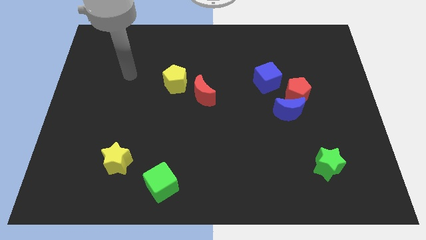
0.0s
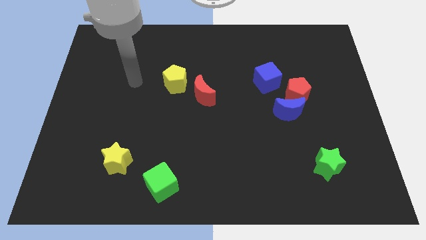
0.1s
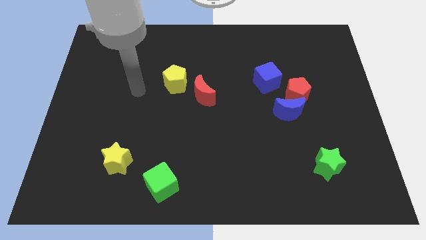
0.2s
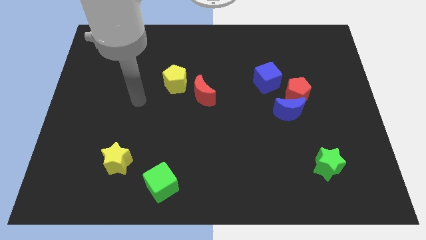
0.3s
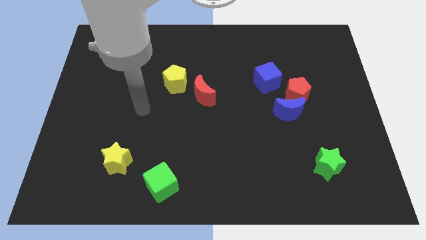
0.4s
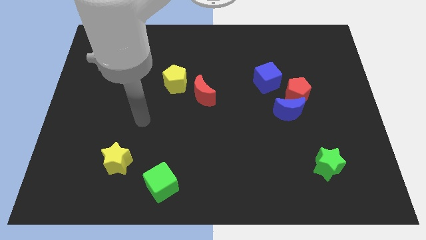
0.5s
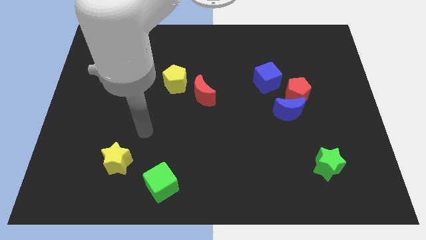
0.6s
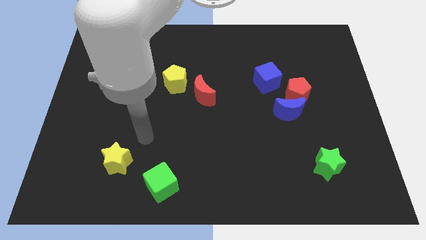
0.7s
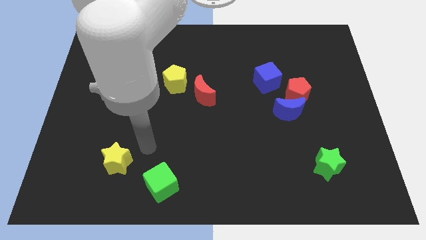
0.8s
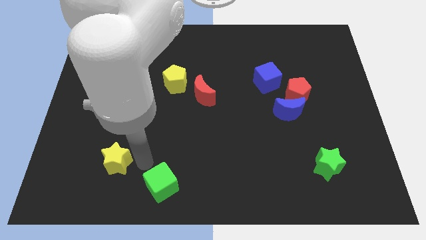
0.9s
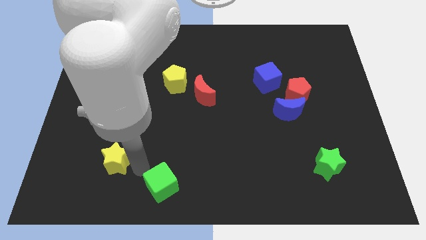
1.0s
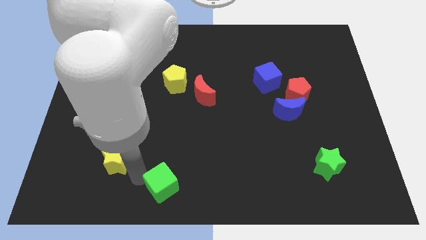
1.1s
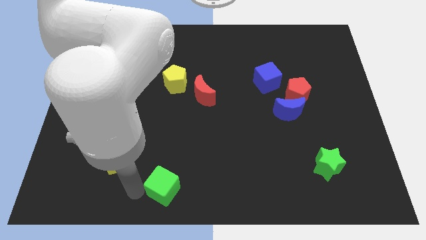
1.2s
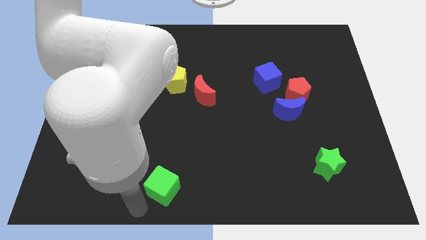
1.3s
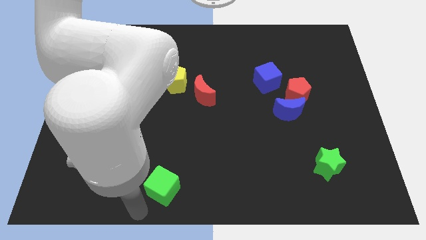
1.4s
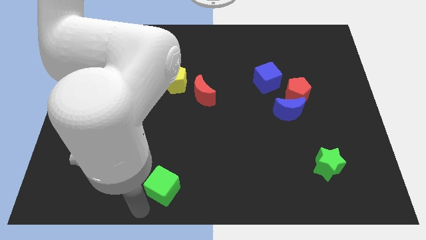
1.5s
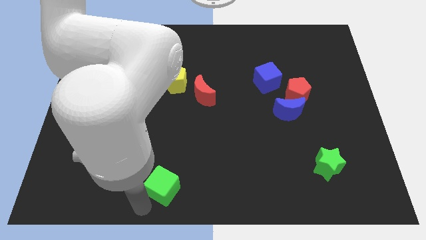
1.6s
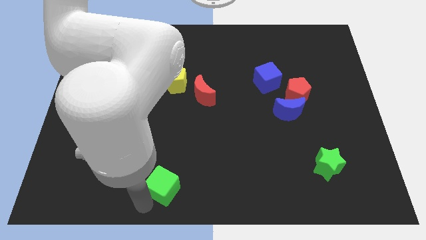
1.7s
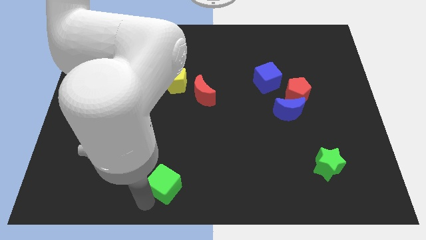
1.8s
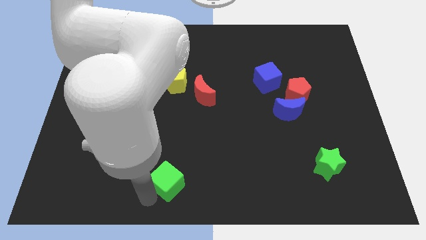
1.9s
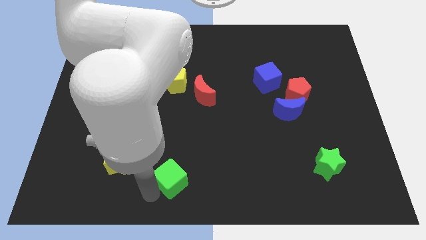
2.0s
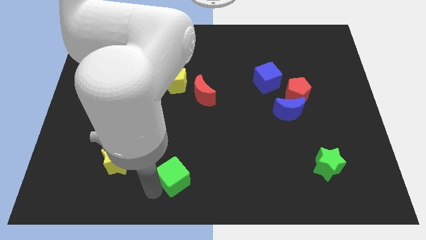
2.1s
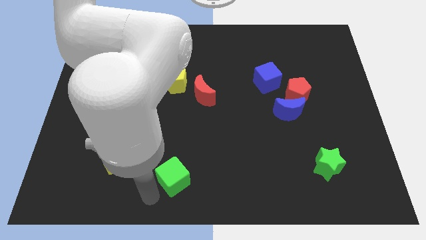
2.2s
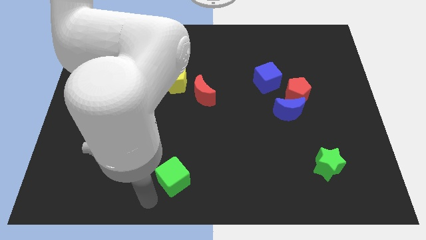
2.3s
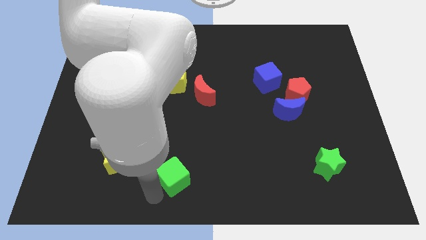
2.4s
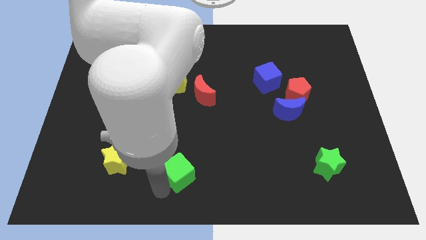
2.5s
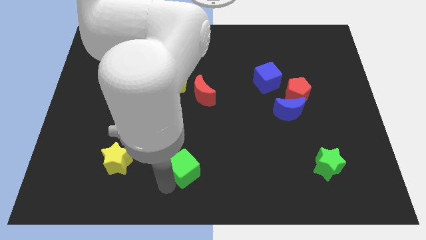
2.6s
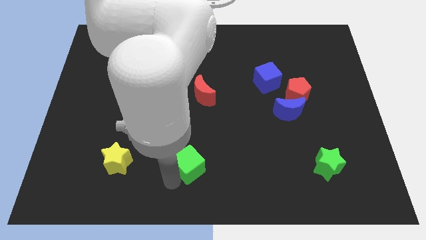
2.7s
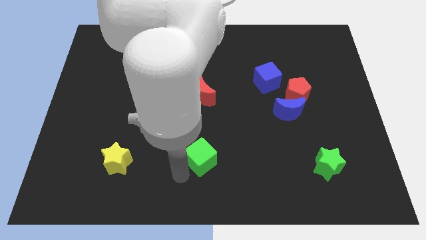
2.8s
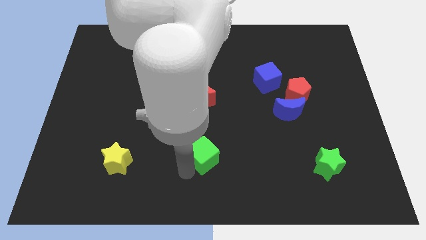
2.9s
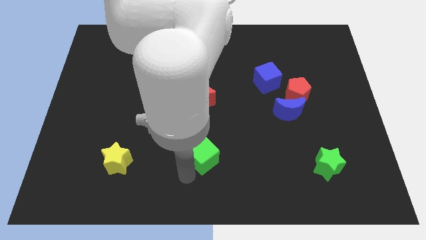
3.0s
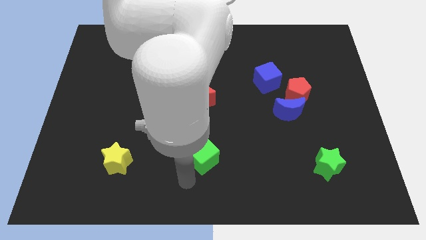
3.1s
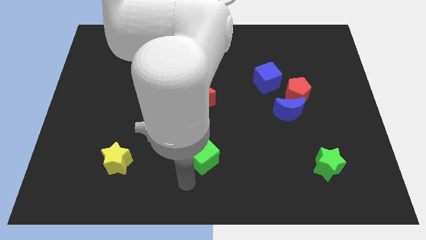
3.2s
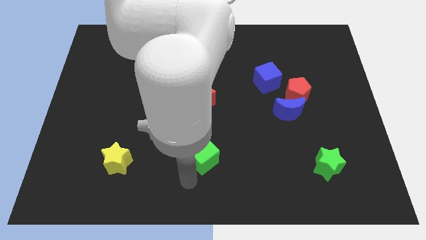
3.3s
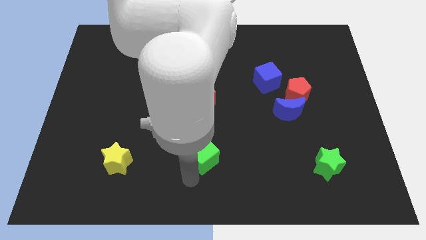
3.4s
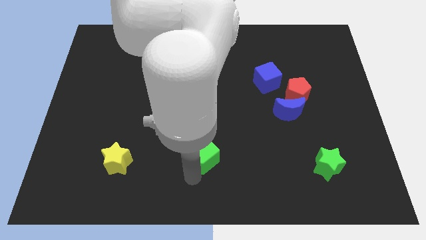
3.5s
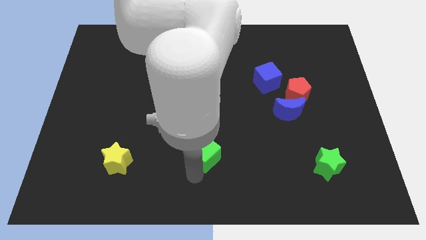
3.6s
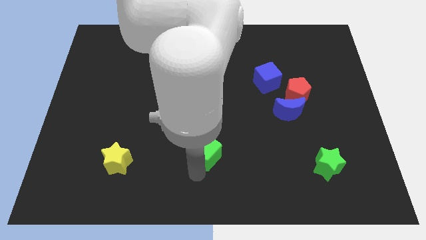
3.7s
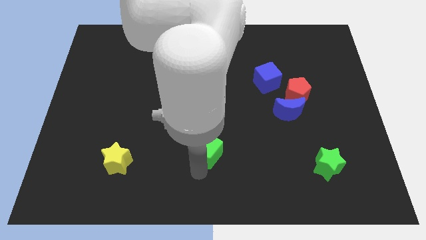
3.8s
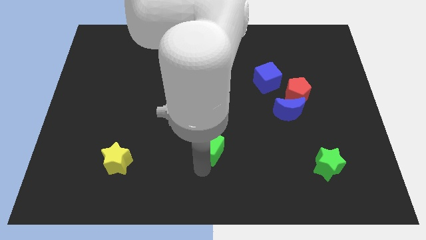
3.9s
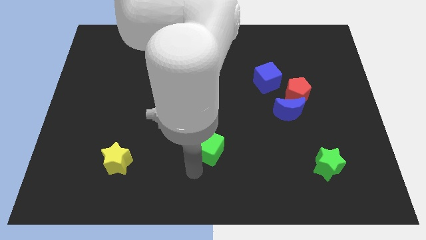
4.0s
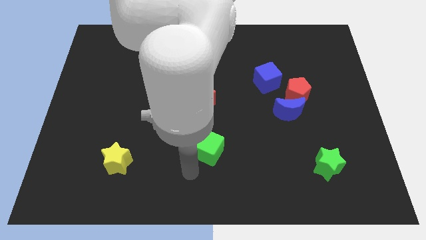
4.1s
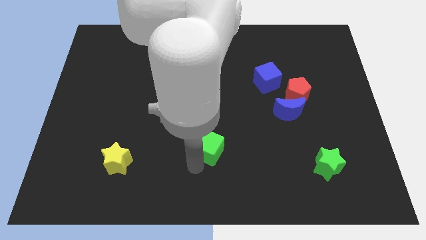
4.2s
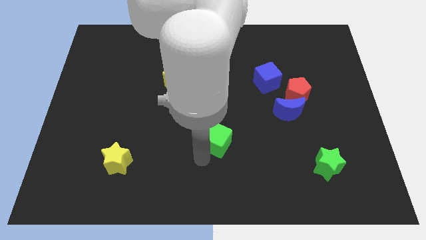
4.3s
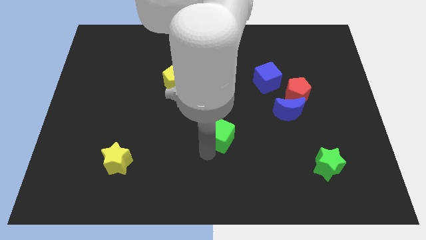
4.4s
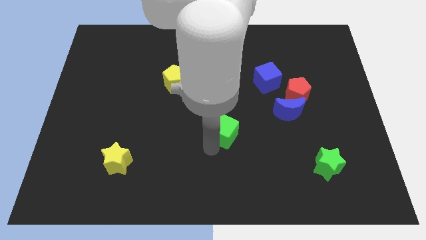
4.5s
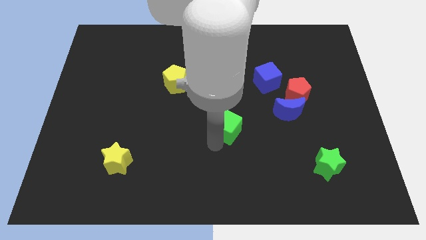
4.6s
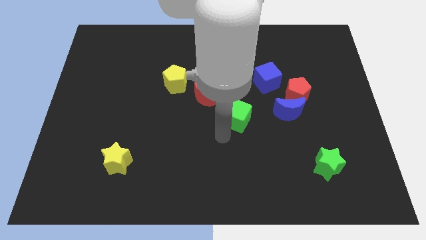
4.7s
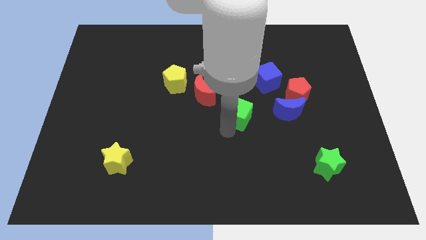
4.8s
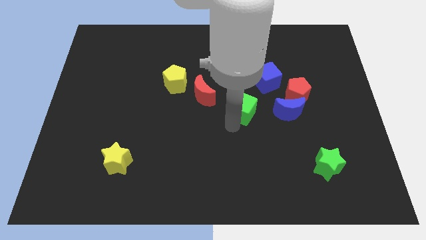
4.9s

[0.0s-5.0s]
push the green cube to the bottom left side of the blue cube

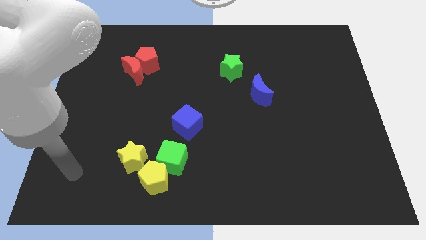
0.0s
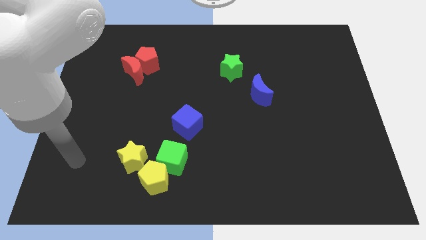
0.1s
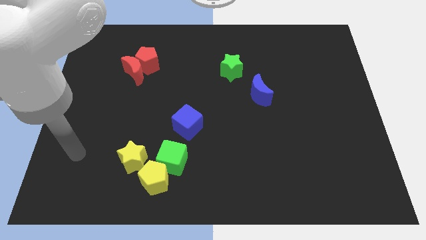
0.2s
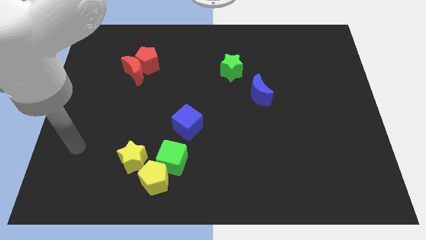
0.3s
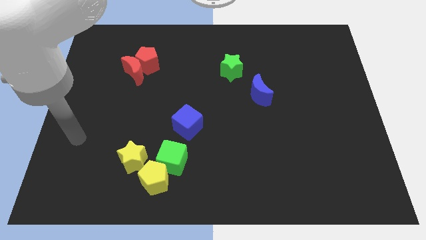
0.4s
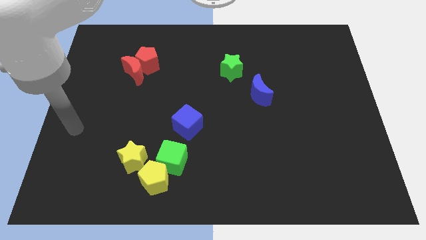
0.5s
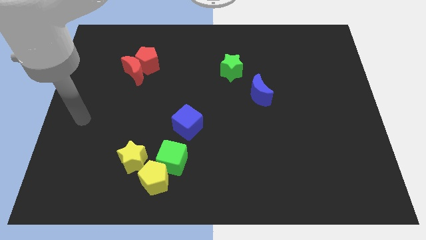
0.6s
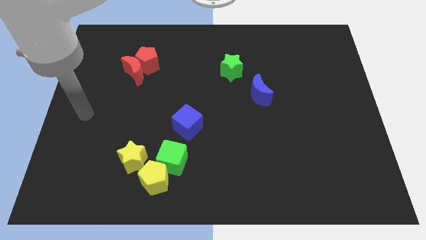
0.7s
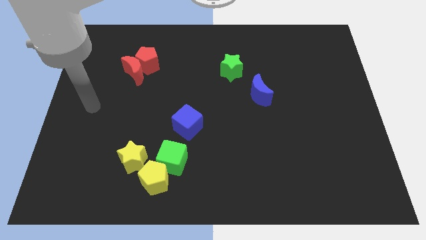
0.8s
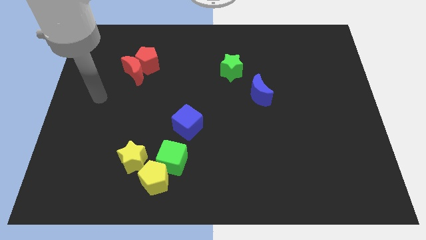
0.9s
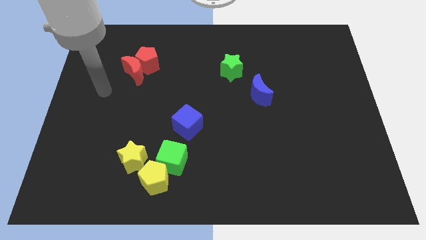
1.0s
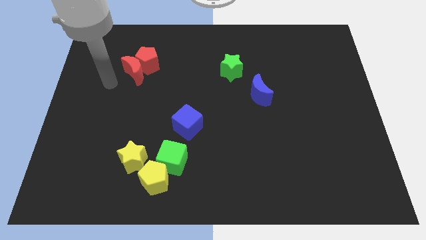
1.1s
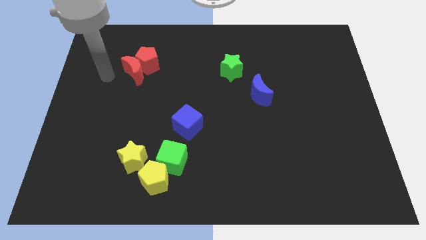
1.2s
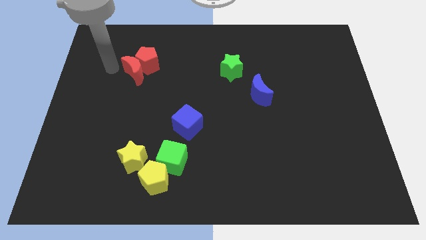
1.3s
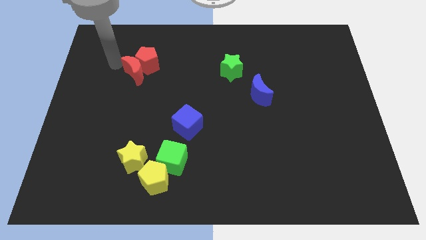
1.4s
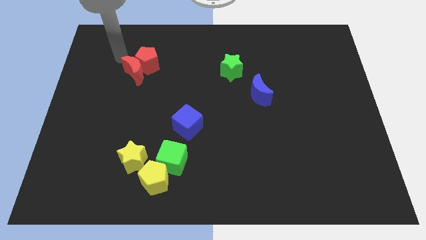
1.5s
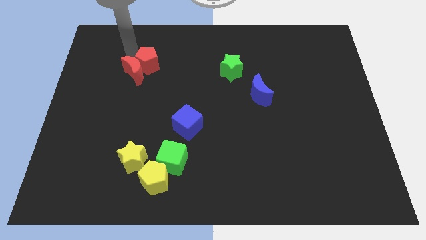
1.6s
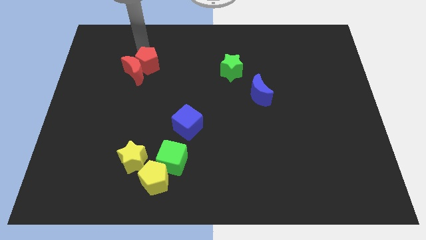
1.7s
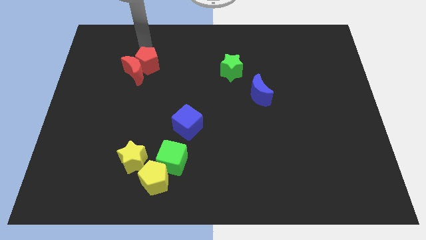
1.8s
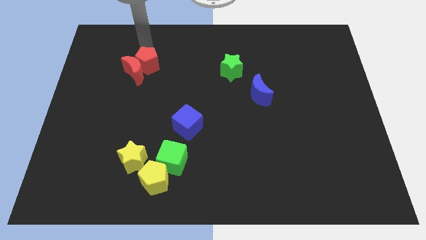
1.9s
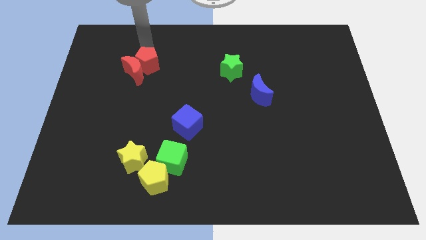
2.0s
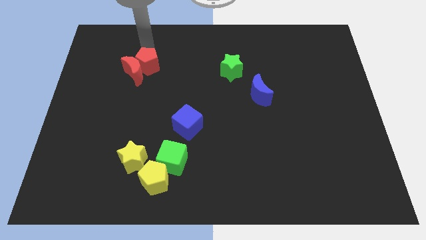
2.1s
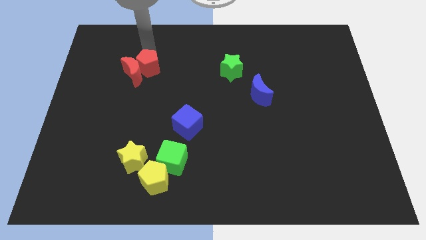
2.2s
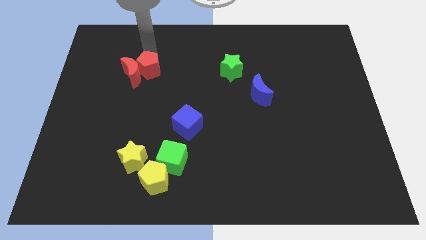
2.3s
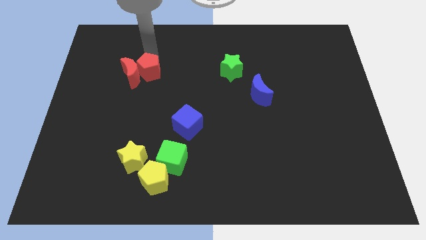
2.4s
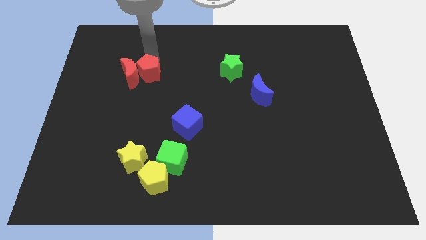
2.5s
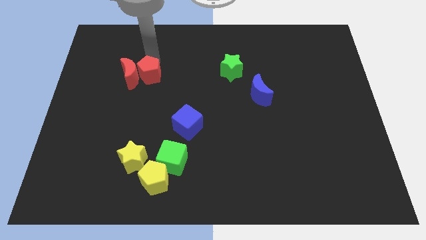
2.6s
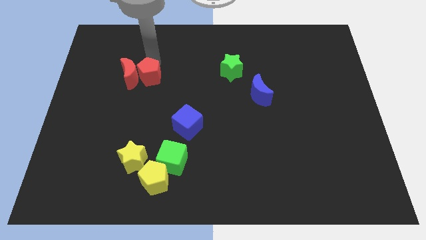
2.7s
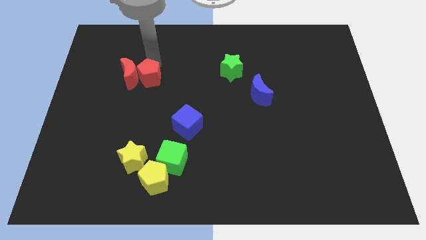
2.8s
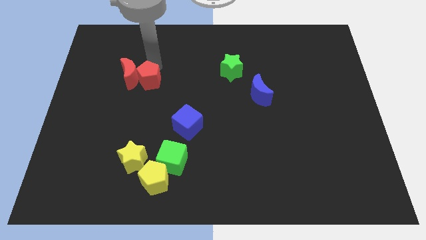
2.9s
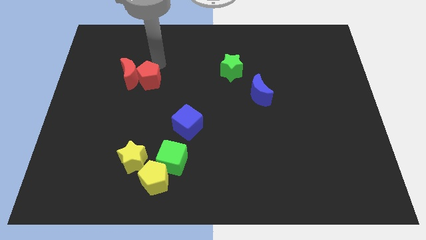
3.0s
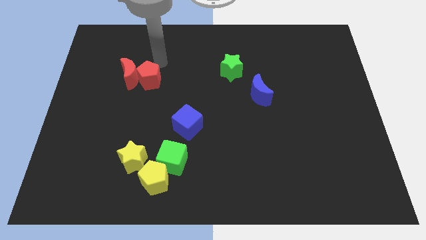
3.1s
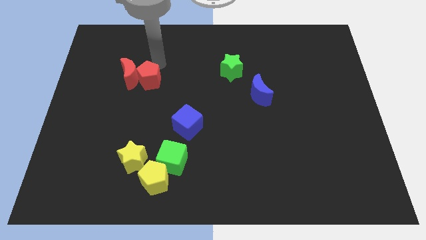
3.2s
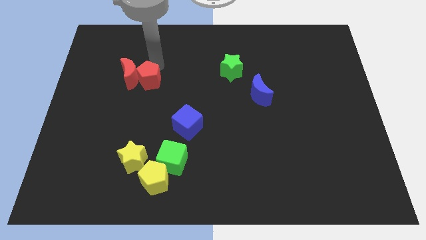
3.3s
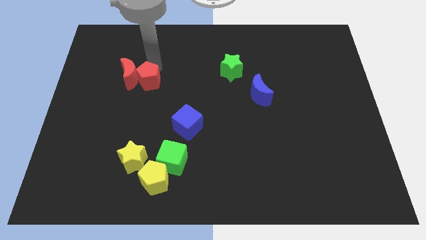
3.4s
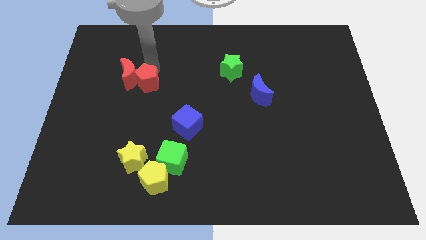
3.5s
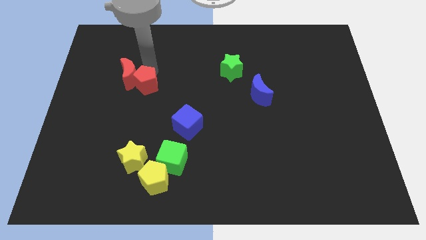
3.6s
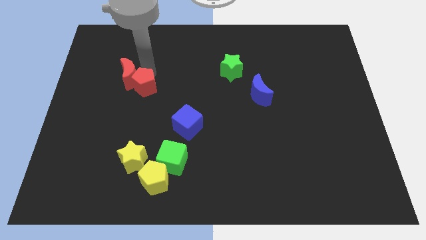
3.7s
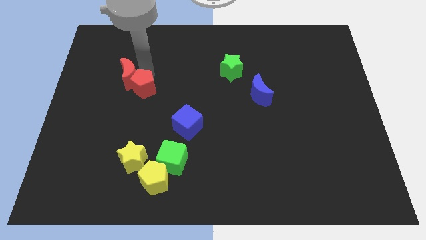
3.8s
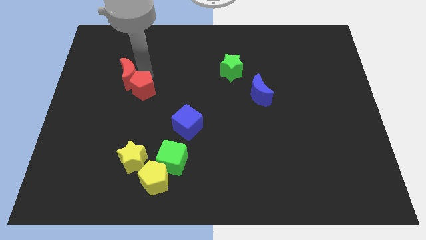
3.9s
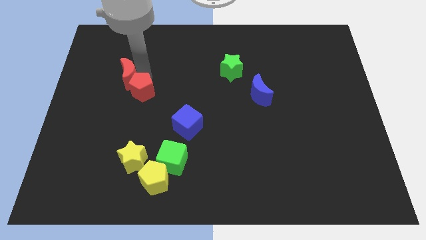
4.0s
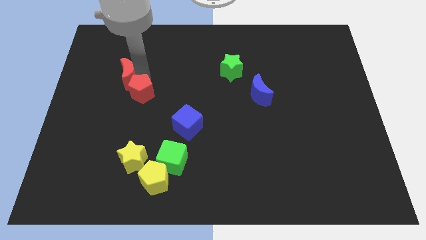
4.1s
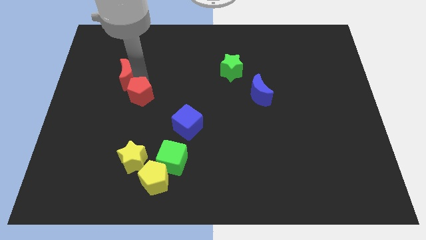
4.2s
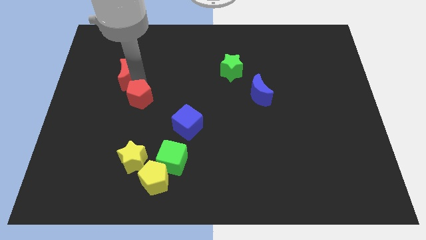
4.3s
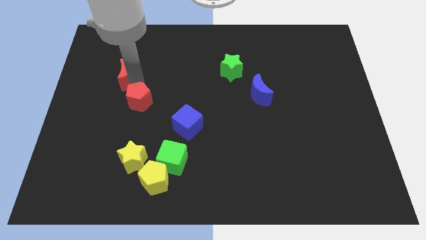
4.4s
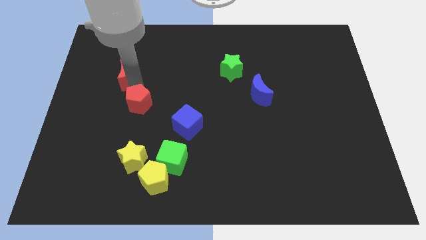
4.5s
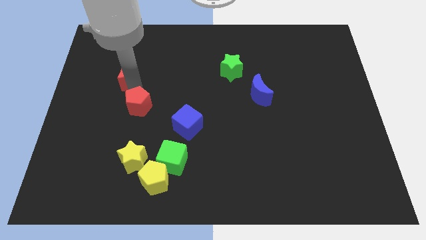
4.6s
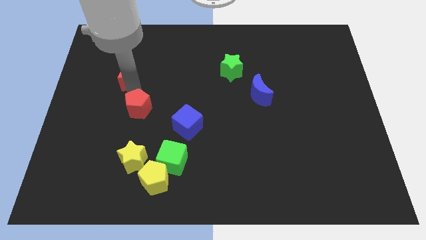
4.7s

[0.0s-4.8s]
slide the red pentagon to the left side of the blue cube
